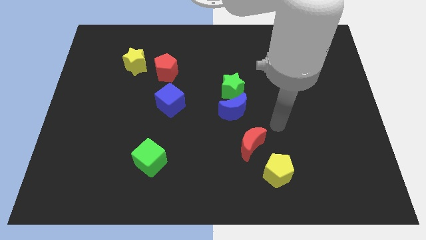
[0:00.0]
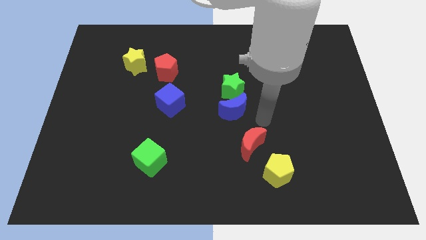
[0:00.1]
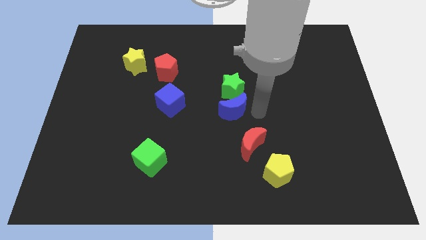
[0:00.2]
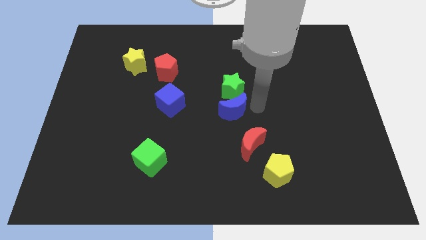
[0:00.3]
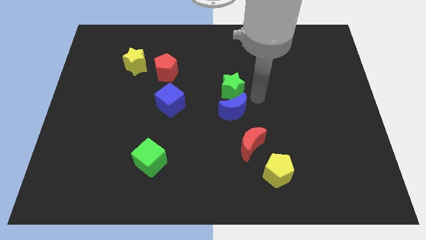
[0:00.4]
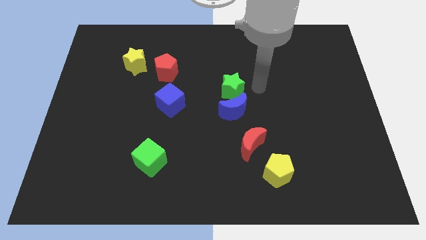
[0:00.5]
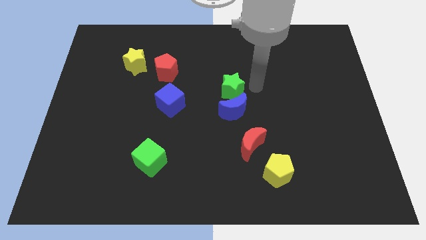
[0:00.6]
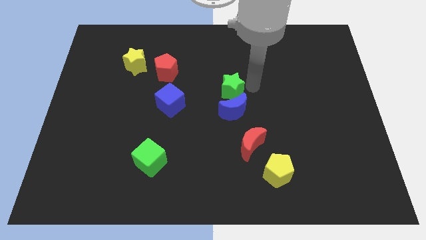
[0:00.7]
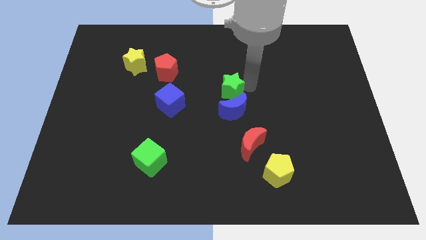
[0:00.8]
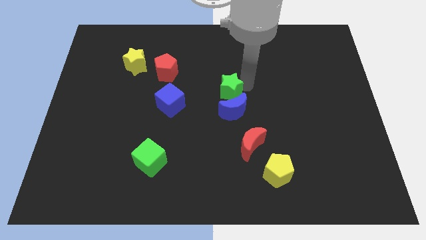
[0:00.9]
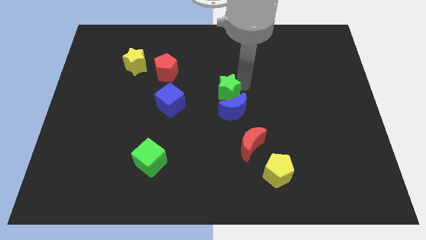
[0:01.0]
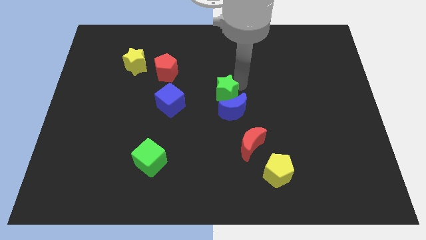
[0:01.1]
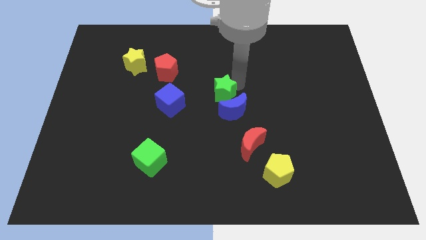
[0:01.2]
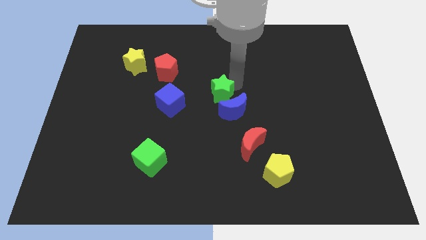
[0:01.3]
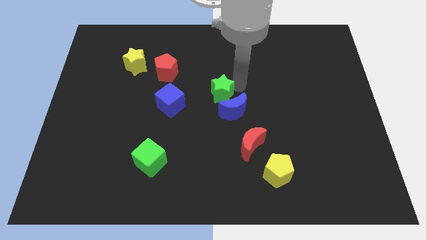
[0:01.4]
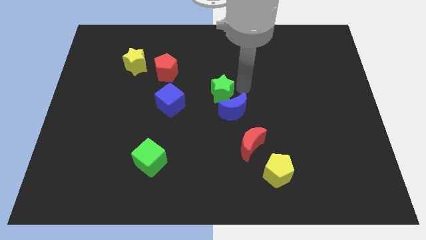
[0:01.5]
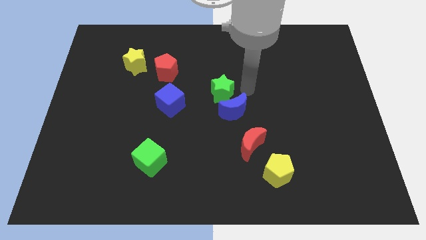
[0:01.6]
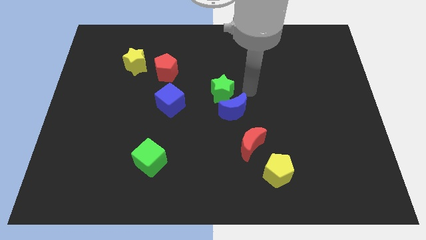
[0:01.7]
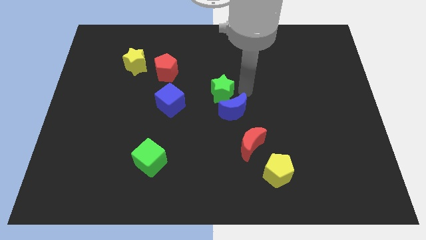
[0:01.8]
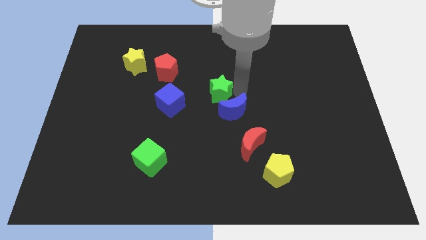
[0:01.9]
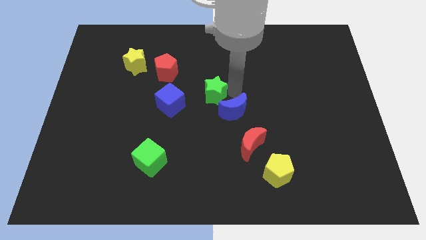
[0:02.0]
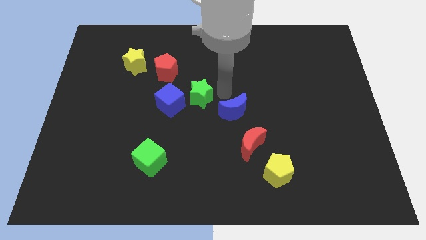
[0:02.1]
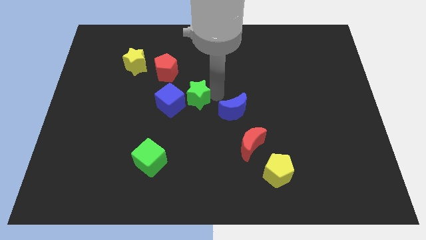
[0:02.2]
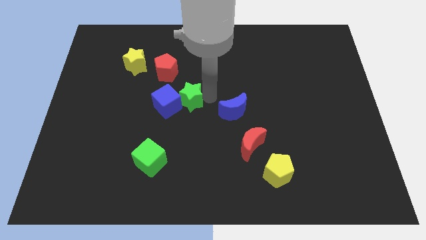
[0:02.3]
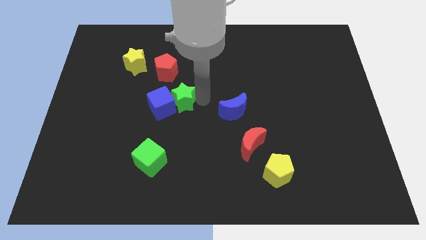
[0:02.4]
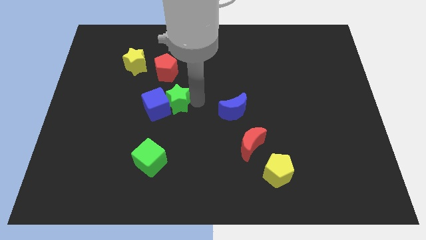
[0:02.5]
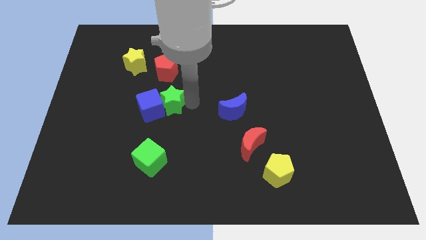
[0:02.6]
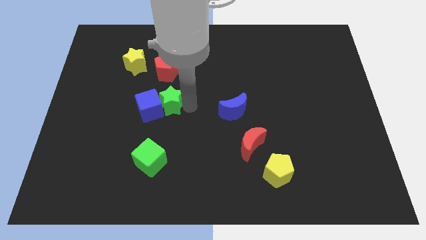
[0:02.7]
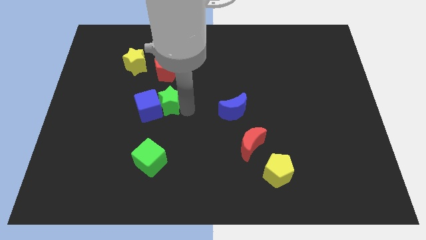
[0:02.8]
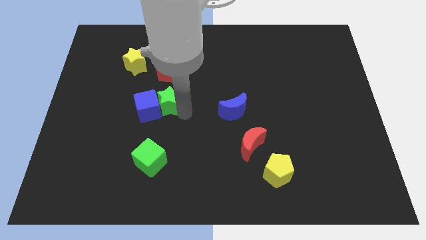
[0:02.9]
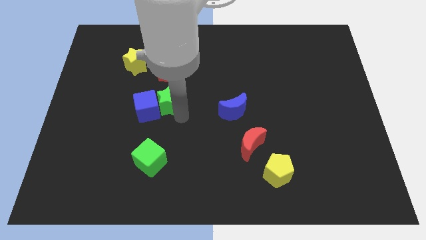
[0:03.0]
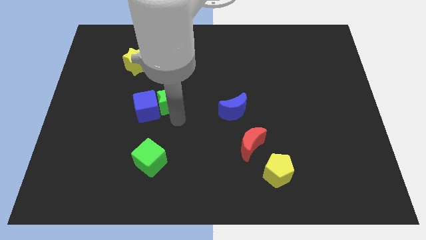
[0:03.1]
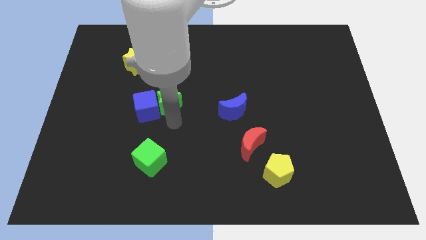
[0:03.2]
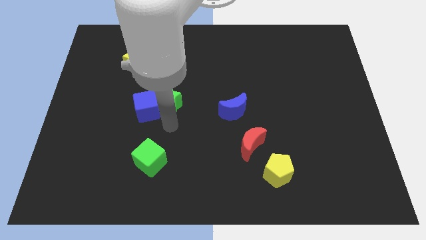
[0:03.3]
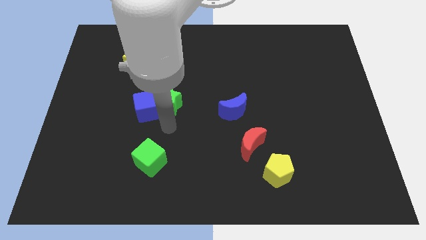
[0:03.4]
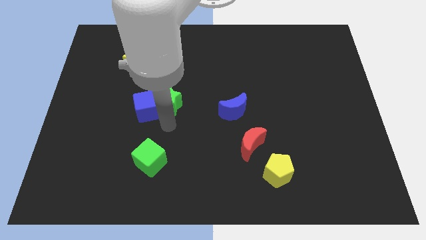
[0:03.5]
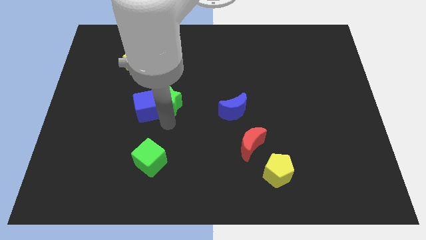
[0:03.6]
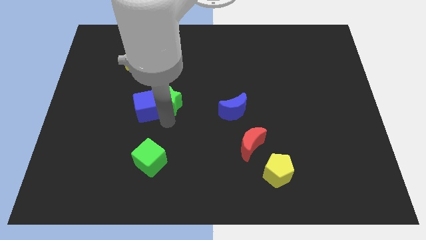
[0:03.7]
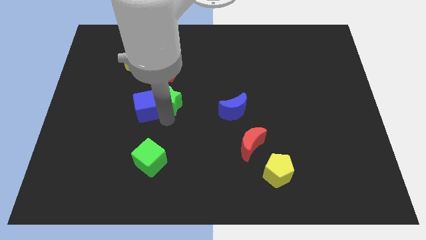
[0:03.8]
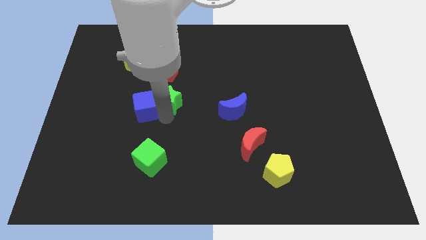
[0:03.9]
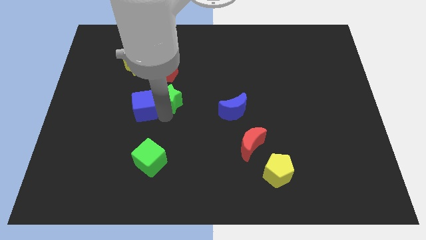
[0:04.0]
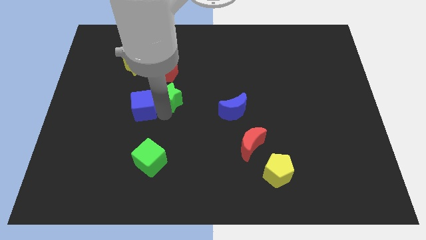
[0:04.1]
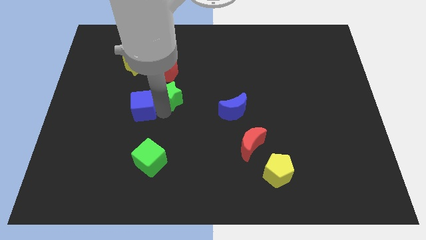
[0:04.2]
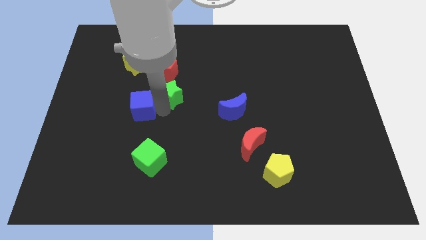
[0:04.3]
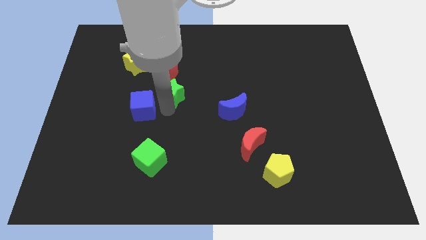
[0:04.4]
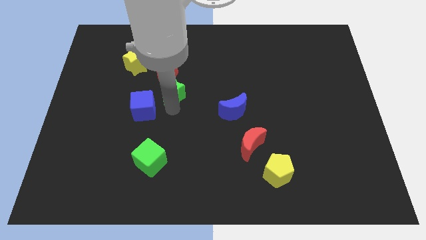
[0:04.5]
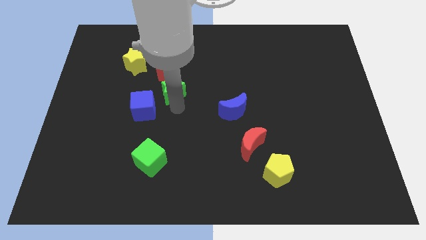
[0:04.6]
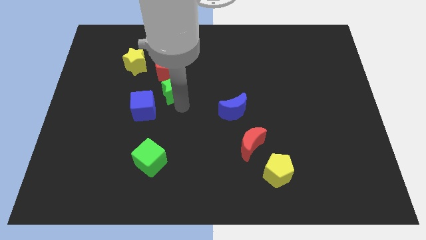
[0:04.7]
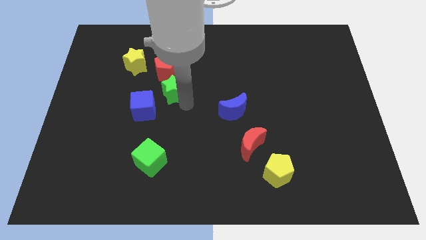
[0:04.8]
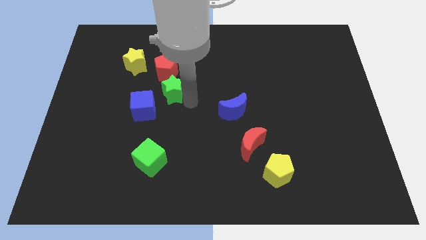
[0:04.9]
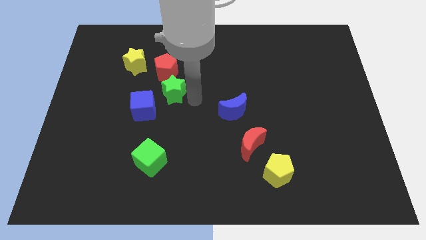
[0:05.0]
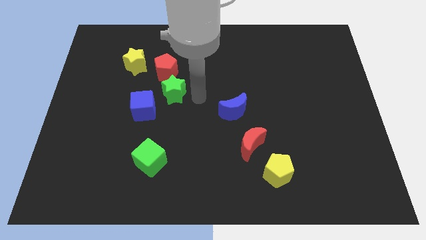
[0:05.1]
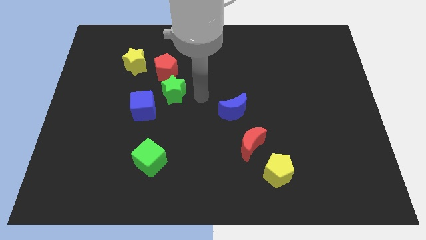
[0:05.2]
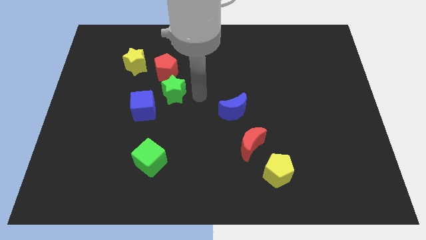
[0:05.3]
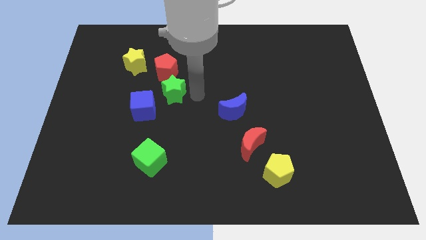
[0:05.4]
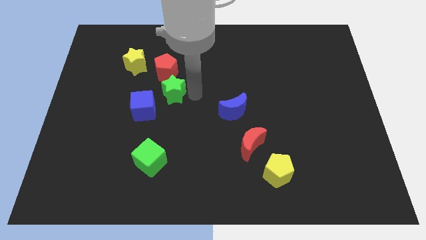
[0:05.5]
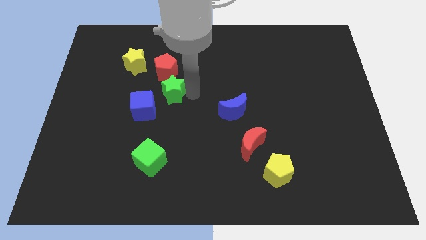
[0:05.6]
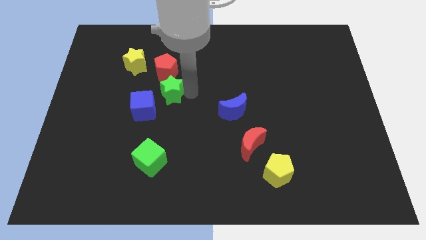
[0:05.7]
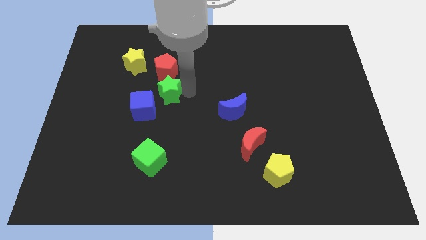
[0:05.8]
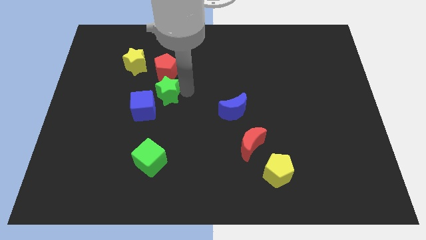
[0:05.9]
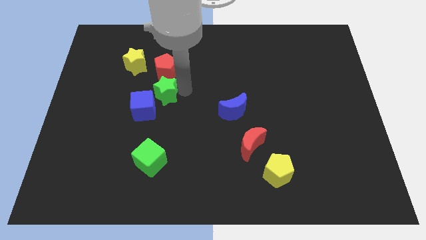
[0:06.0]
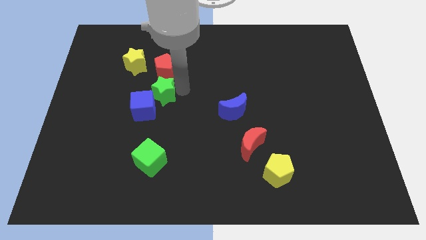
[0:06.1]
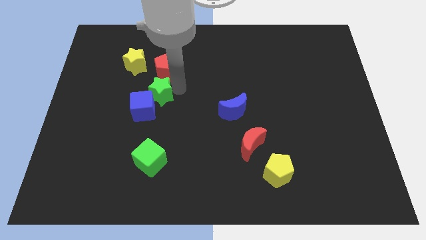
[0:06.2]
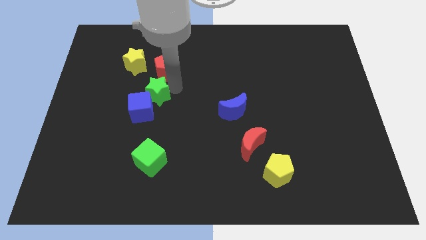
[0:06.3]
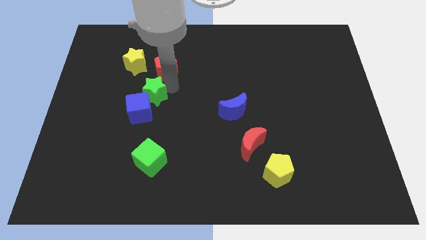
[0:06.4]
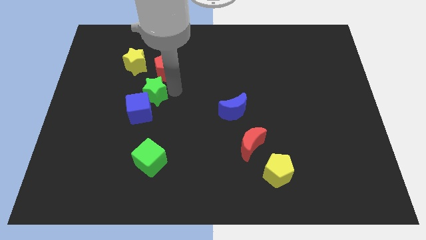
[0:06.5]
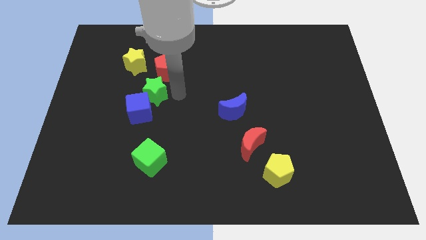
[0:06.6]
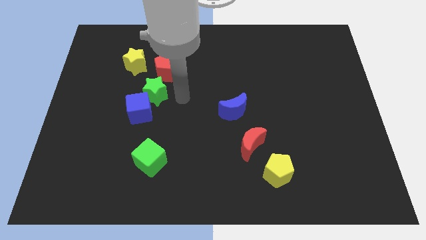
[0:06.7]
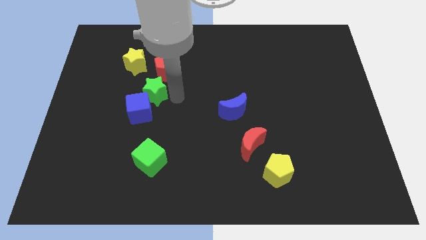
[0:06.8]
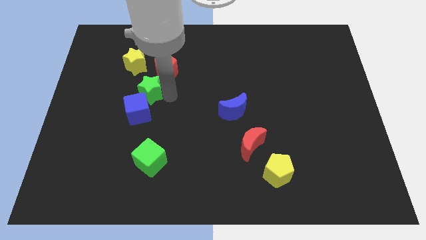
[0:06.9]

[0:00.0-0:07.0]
slide the green star to the left

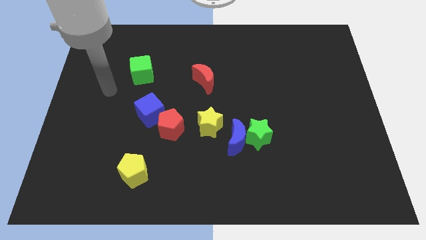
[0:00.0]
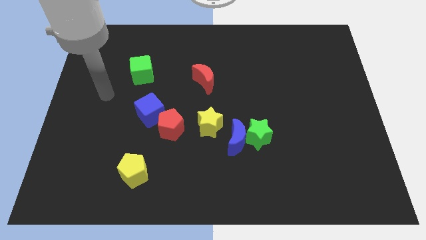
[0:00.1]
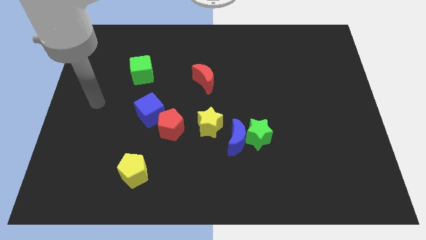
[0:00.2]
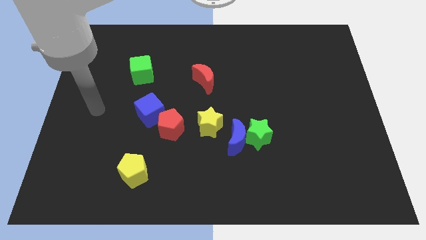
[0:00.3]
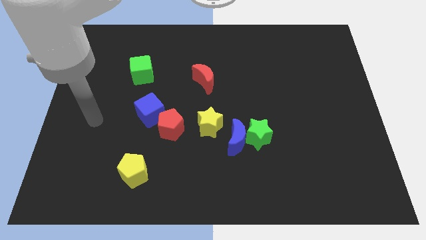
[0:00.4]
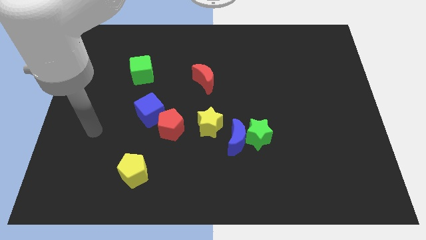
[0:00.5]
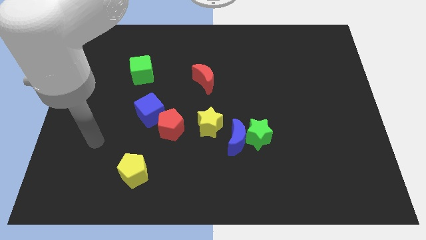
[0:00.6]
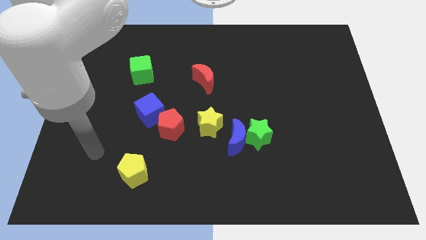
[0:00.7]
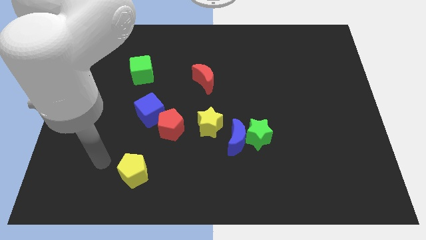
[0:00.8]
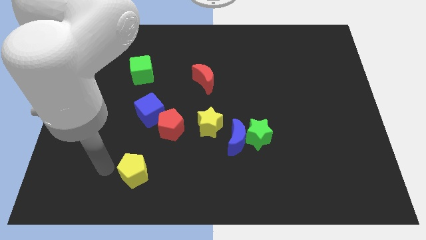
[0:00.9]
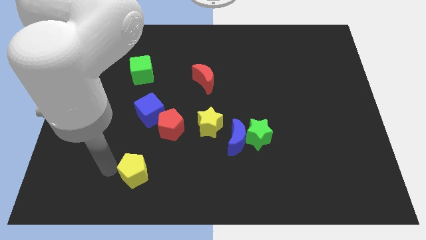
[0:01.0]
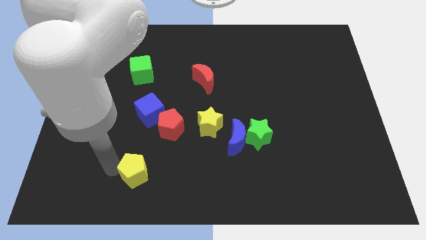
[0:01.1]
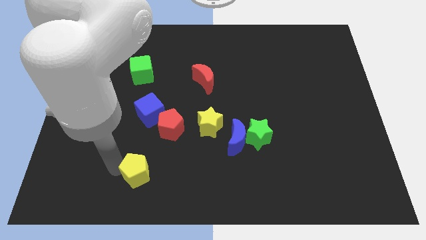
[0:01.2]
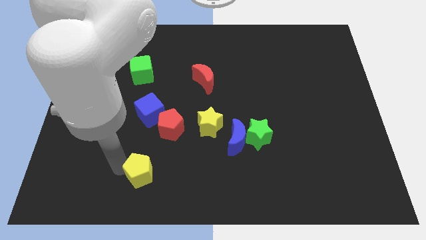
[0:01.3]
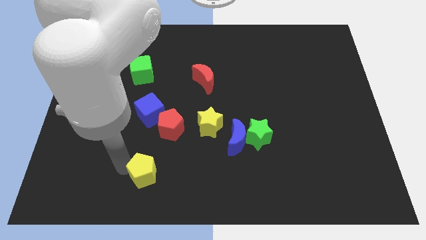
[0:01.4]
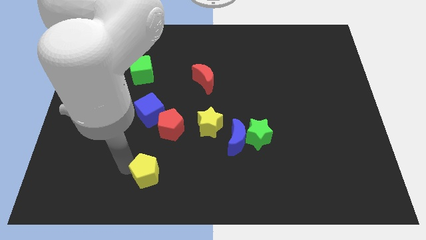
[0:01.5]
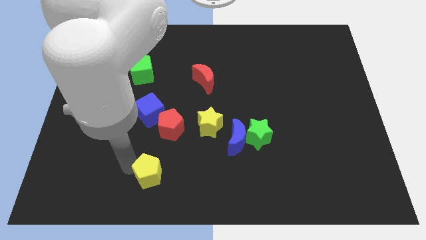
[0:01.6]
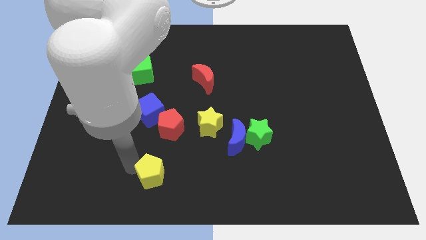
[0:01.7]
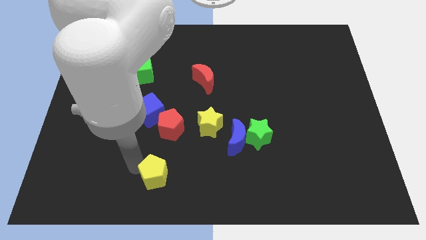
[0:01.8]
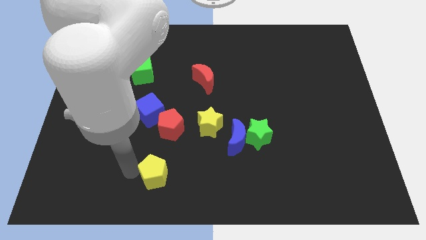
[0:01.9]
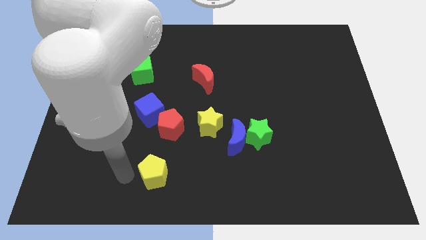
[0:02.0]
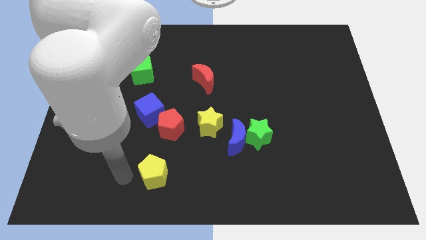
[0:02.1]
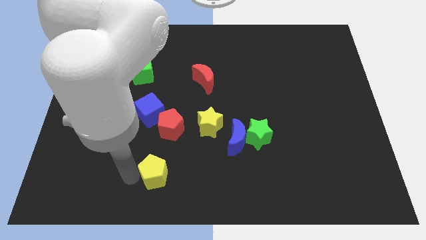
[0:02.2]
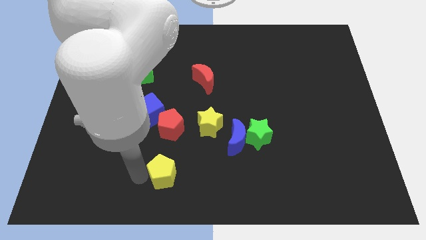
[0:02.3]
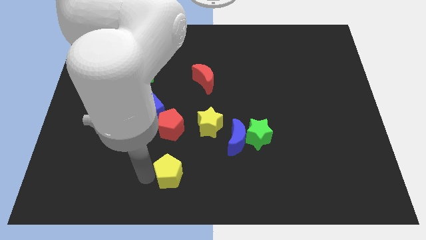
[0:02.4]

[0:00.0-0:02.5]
move the yellow pentagon right a little
